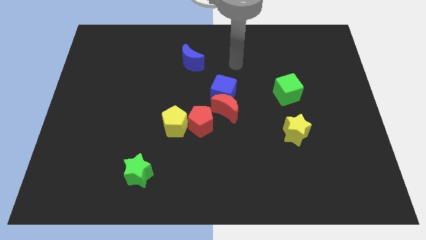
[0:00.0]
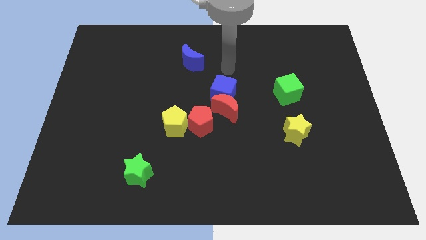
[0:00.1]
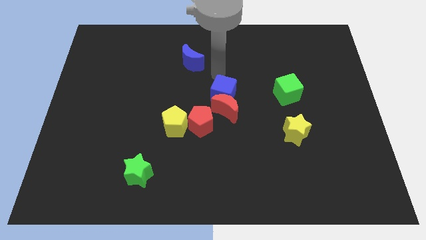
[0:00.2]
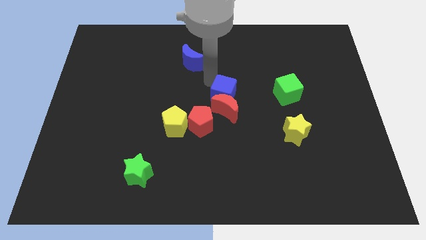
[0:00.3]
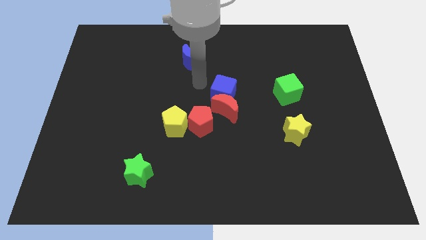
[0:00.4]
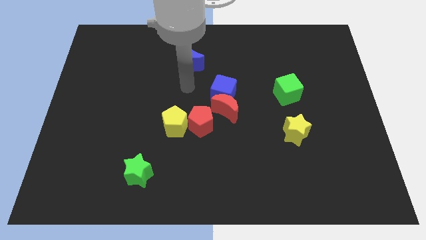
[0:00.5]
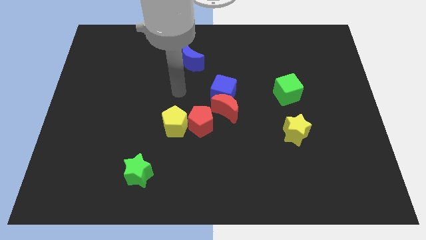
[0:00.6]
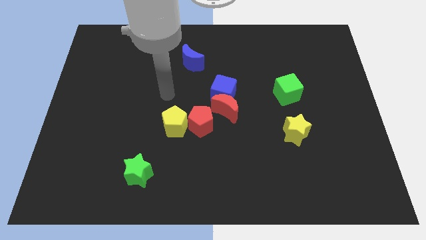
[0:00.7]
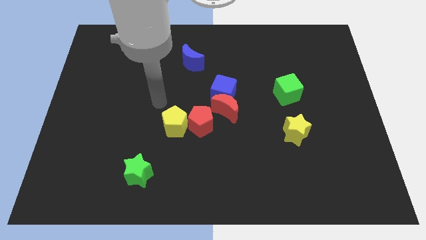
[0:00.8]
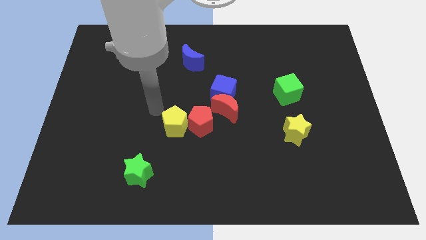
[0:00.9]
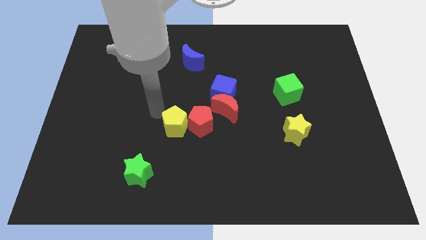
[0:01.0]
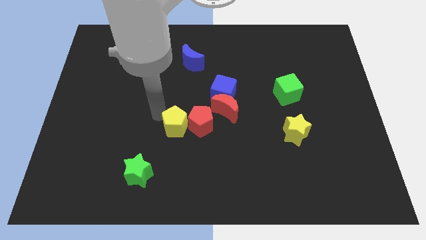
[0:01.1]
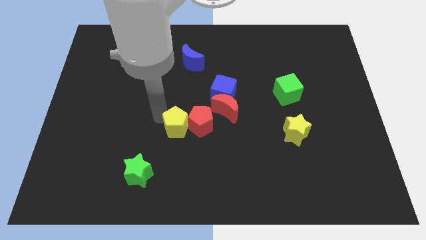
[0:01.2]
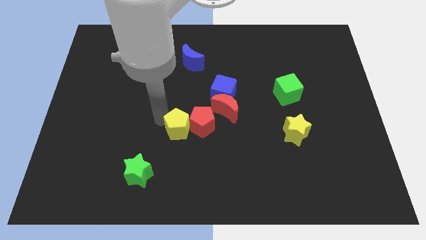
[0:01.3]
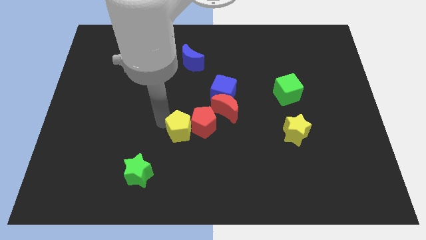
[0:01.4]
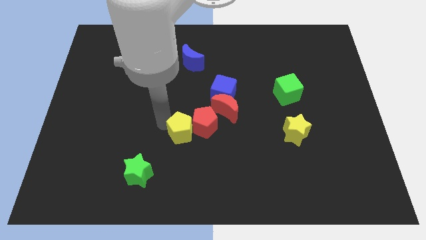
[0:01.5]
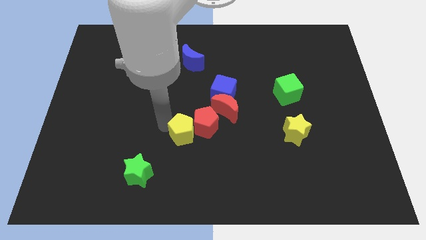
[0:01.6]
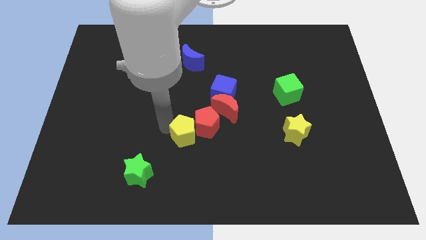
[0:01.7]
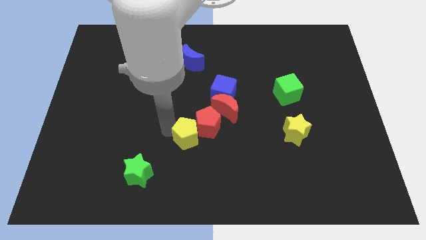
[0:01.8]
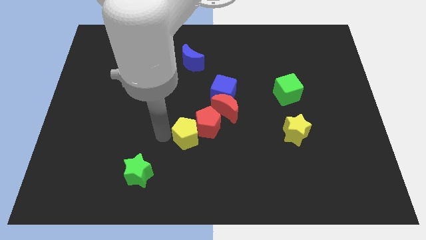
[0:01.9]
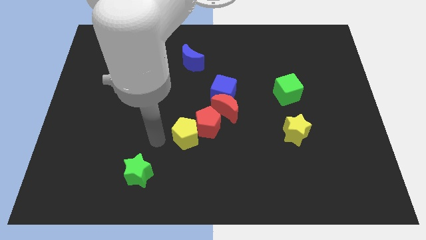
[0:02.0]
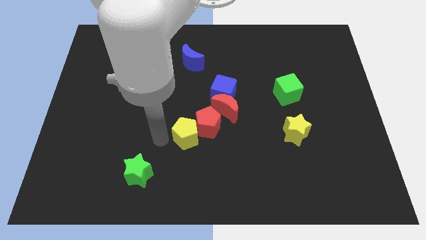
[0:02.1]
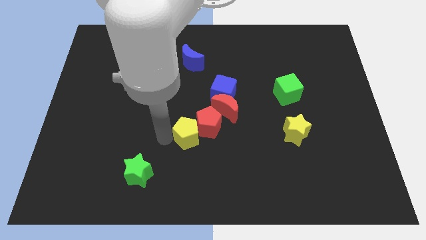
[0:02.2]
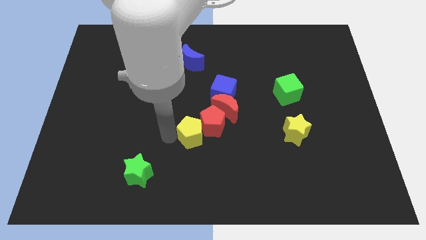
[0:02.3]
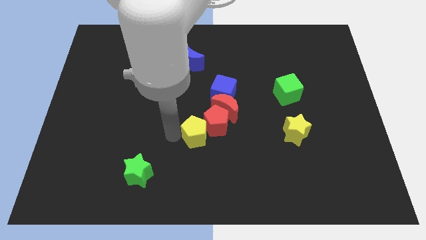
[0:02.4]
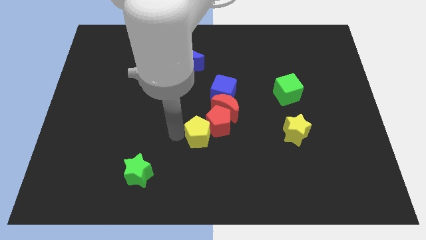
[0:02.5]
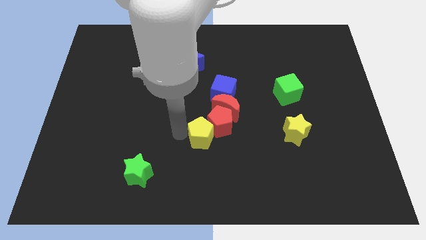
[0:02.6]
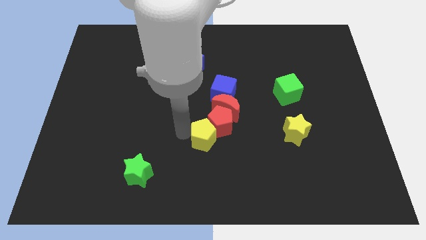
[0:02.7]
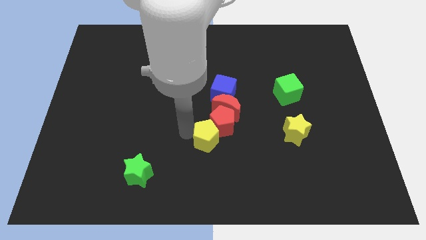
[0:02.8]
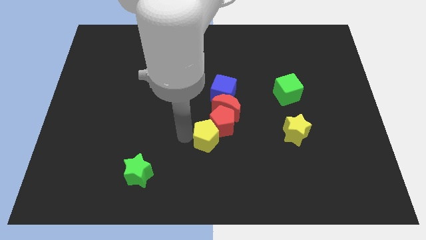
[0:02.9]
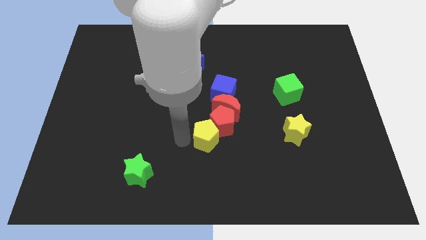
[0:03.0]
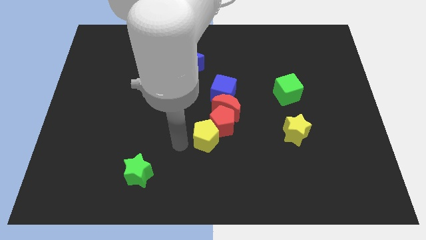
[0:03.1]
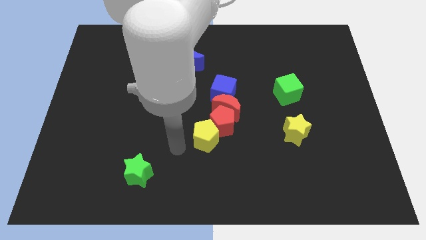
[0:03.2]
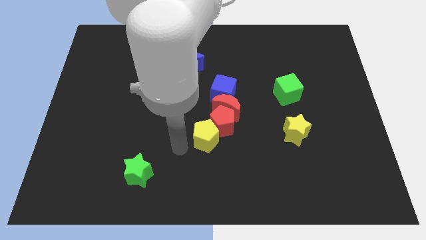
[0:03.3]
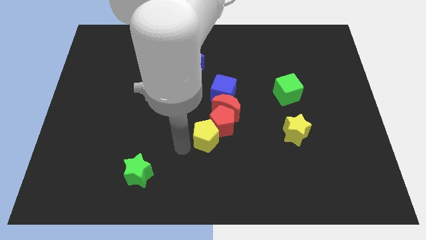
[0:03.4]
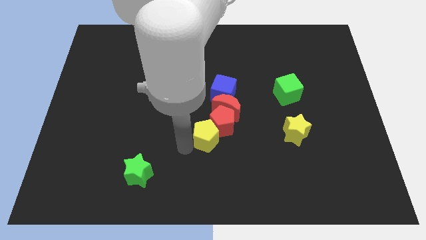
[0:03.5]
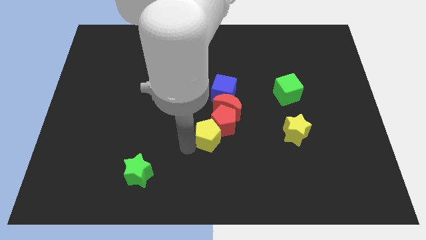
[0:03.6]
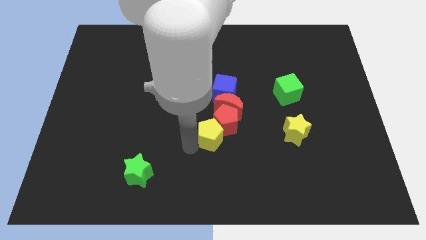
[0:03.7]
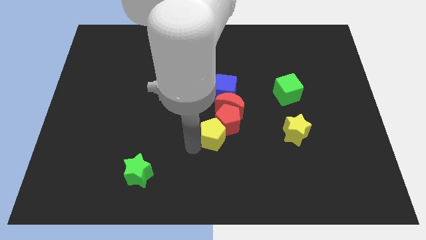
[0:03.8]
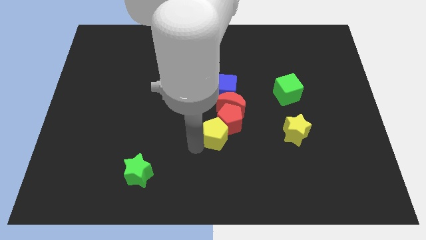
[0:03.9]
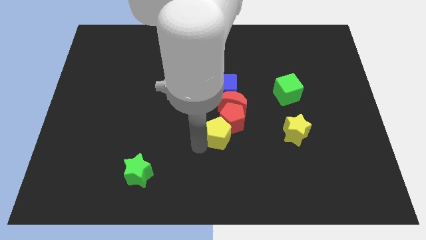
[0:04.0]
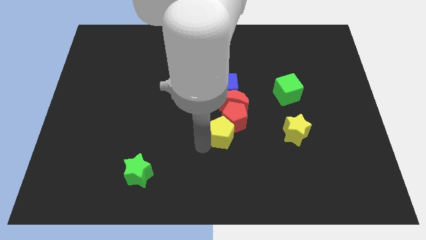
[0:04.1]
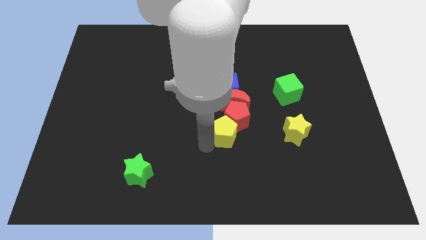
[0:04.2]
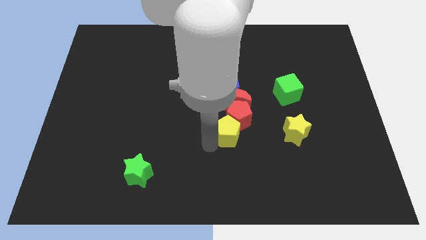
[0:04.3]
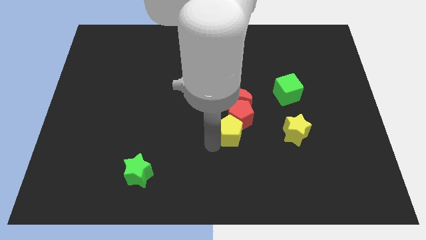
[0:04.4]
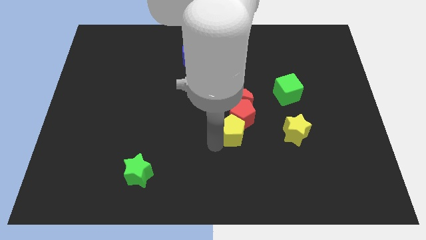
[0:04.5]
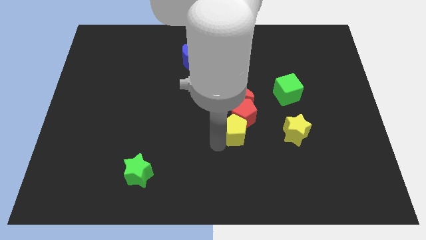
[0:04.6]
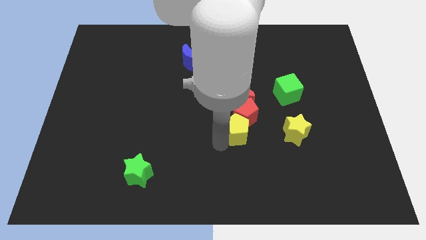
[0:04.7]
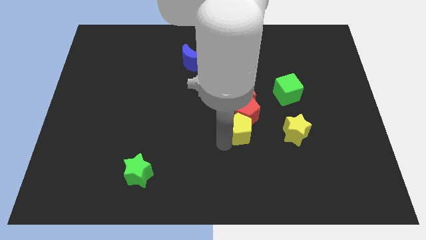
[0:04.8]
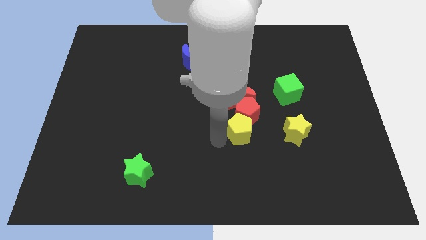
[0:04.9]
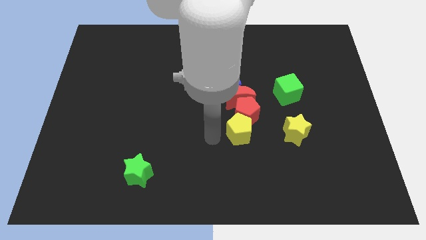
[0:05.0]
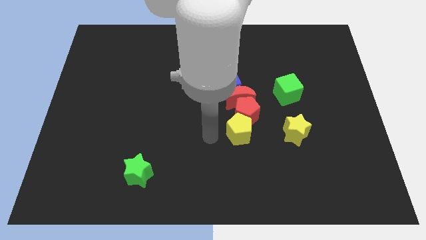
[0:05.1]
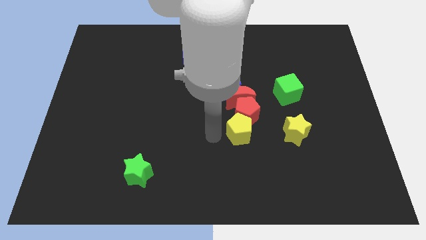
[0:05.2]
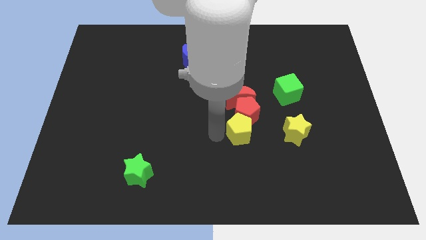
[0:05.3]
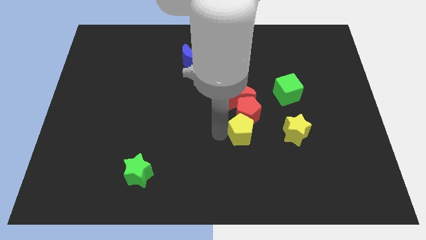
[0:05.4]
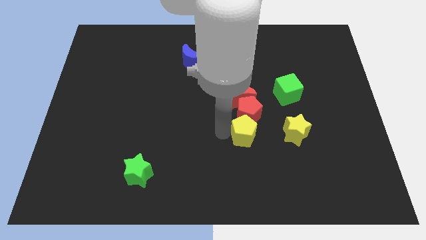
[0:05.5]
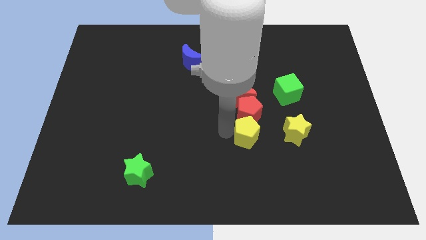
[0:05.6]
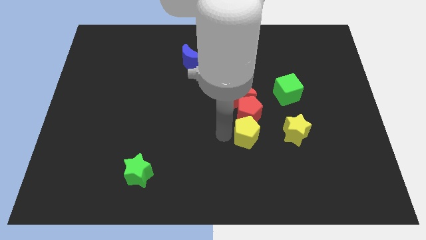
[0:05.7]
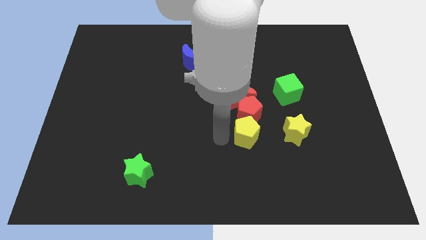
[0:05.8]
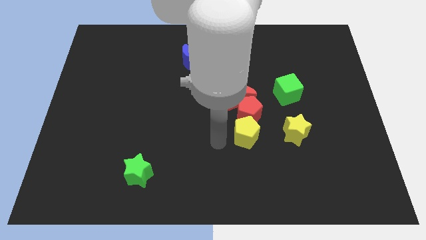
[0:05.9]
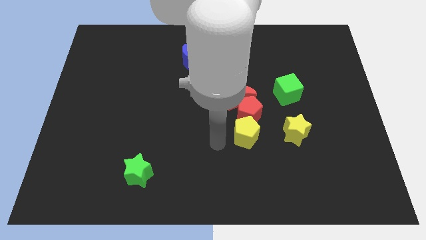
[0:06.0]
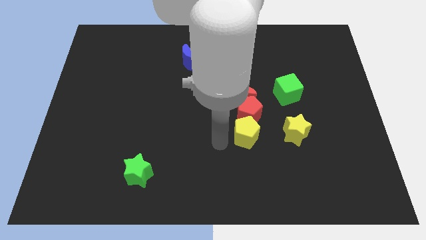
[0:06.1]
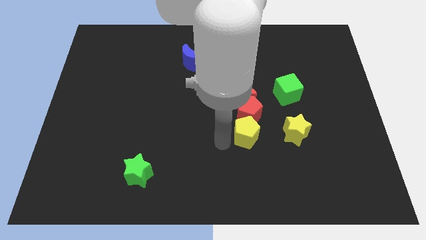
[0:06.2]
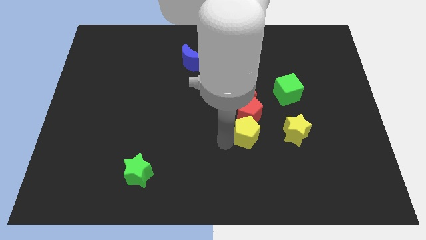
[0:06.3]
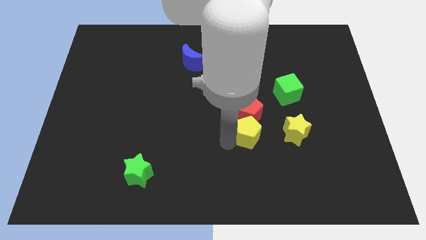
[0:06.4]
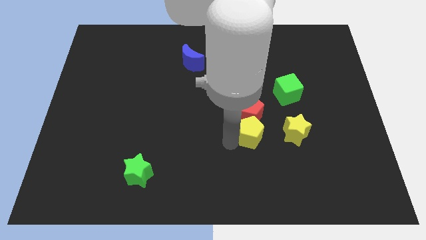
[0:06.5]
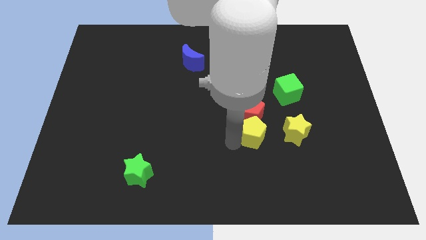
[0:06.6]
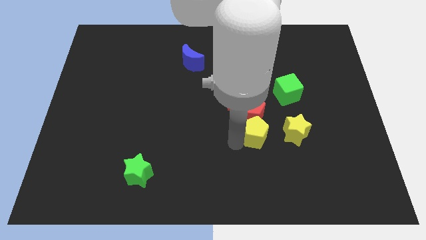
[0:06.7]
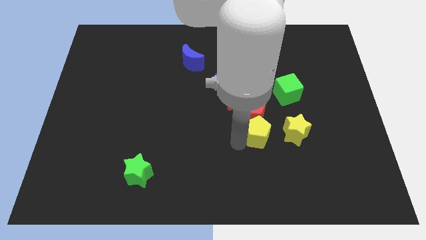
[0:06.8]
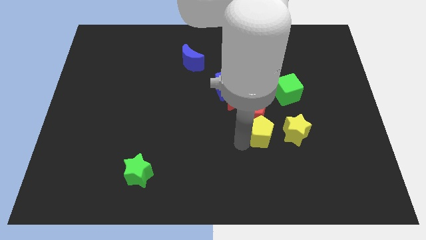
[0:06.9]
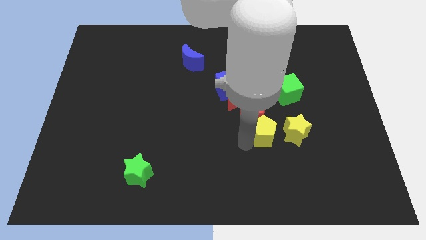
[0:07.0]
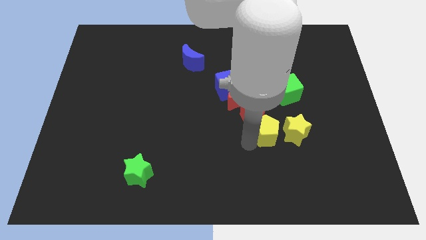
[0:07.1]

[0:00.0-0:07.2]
slide the yellow pentagon right

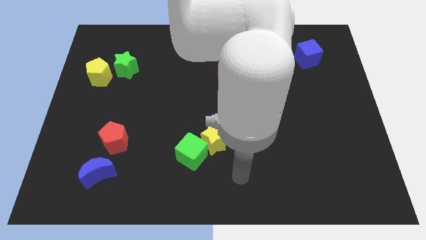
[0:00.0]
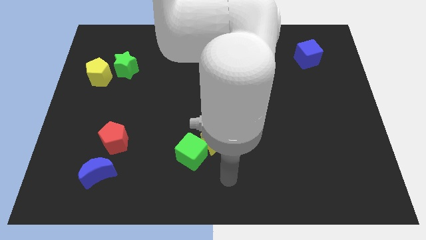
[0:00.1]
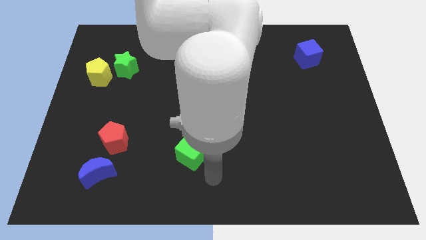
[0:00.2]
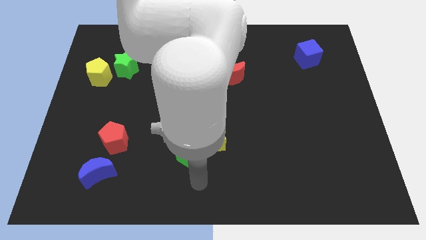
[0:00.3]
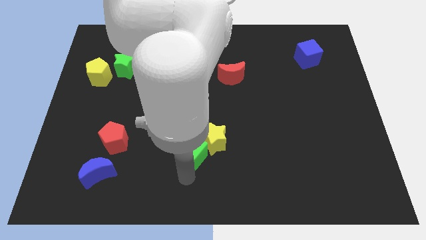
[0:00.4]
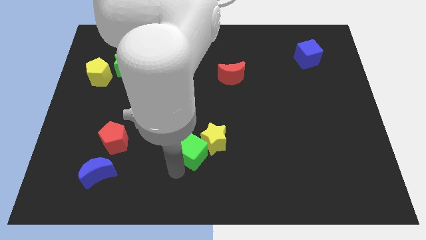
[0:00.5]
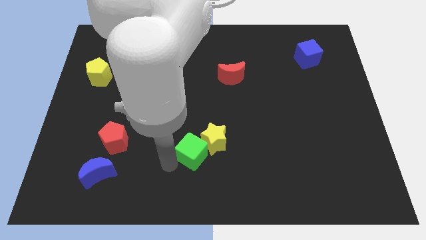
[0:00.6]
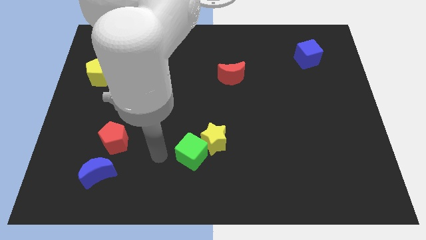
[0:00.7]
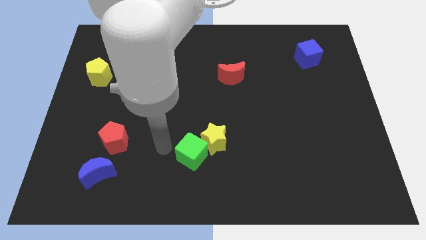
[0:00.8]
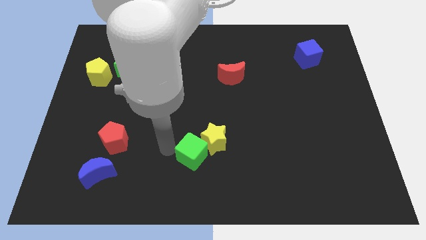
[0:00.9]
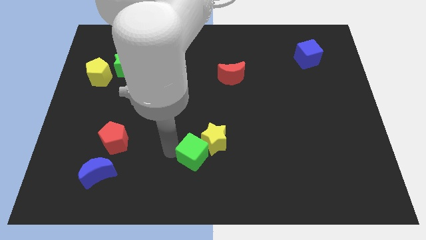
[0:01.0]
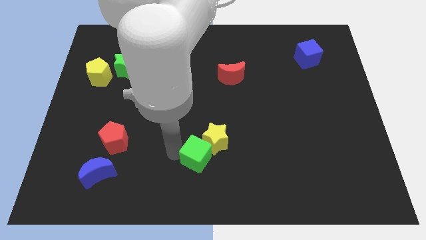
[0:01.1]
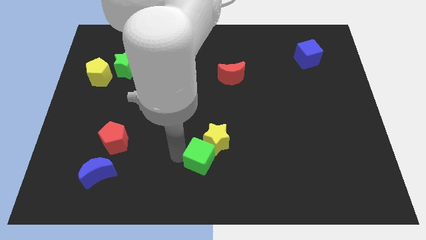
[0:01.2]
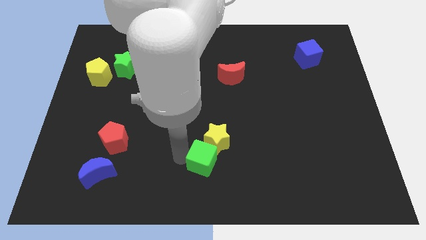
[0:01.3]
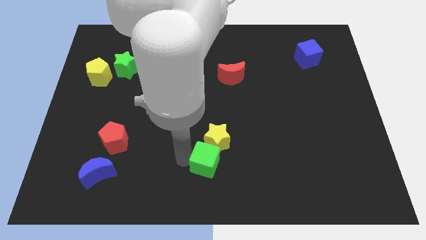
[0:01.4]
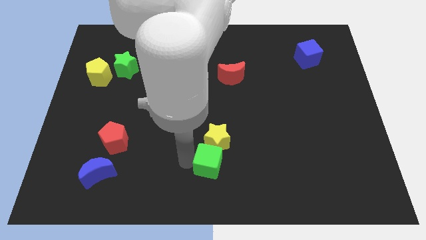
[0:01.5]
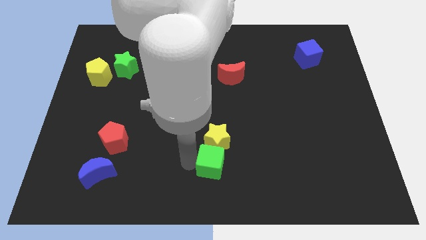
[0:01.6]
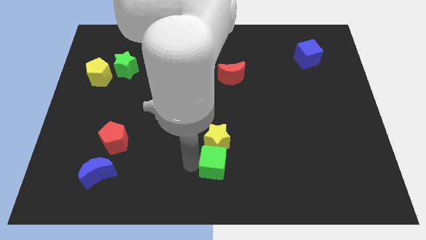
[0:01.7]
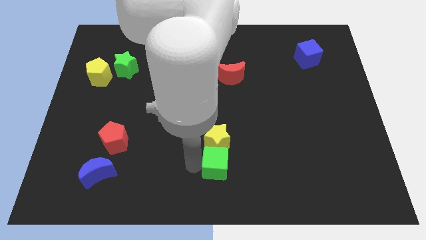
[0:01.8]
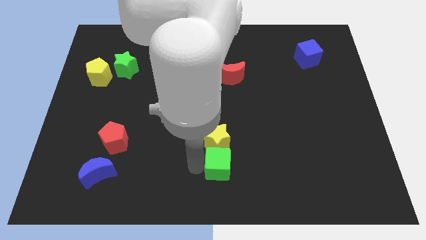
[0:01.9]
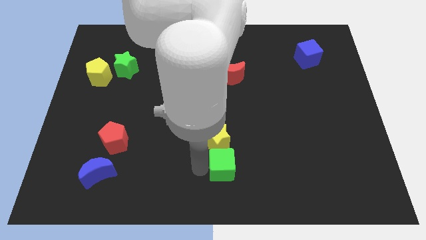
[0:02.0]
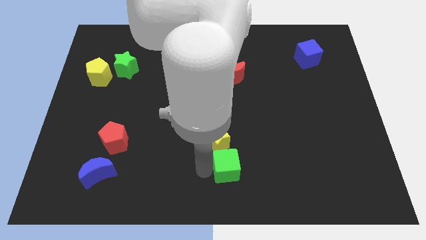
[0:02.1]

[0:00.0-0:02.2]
move the green cube somewhat to the right
